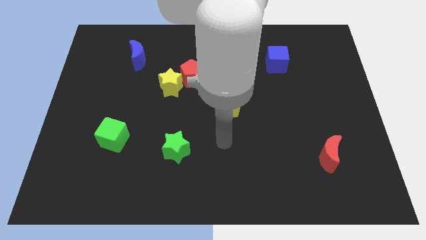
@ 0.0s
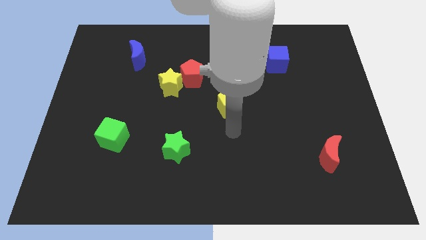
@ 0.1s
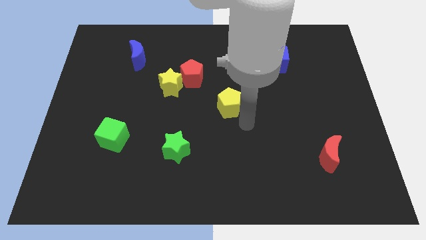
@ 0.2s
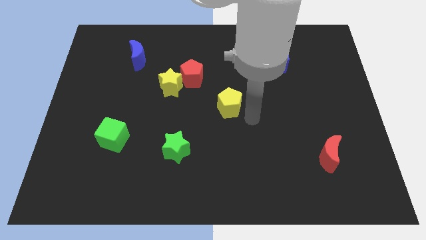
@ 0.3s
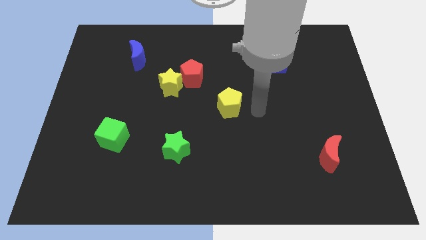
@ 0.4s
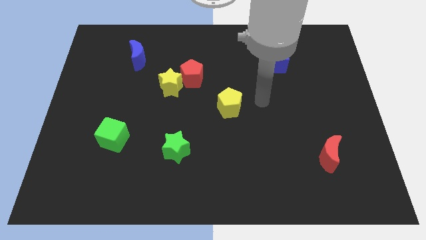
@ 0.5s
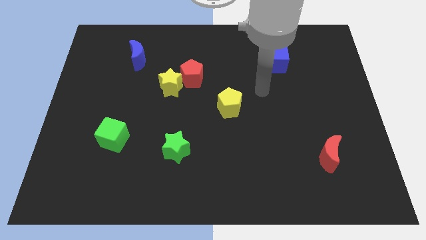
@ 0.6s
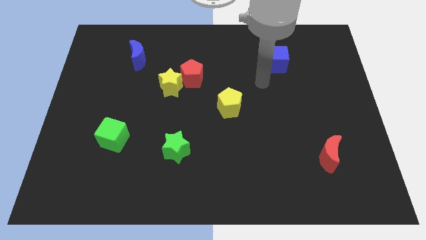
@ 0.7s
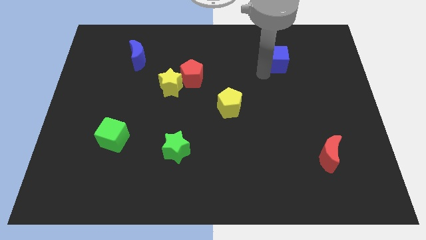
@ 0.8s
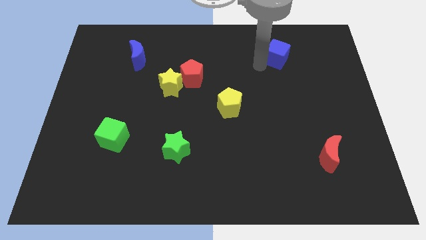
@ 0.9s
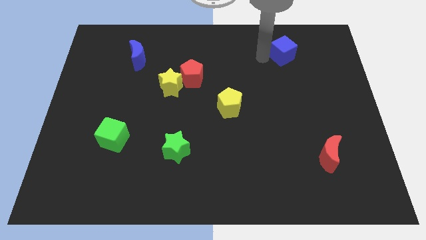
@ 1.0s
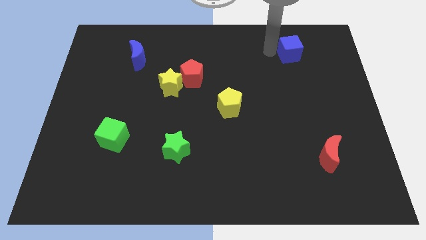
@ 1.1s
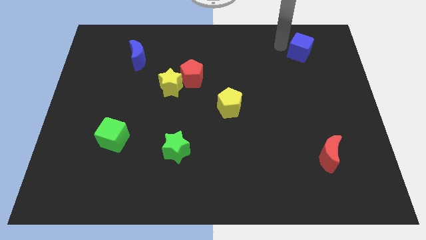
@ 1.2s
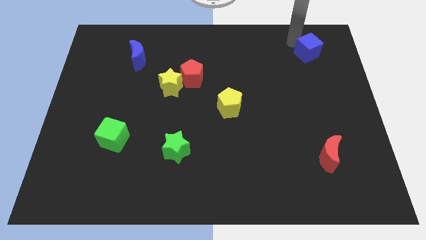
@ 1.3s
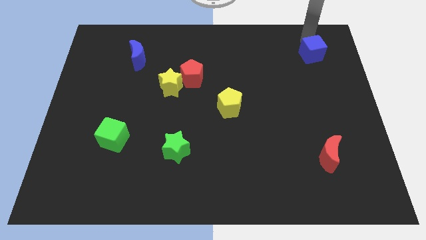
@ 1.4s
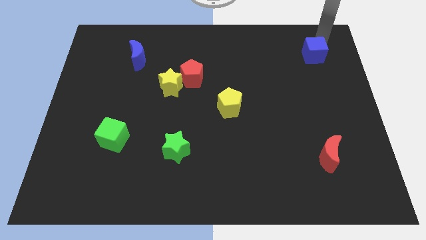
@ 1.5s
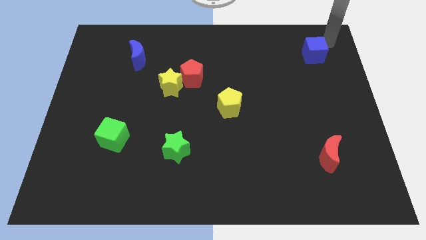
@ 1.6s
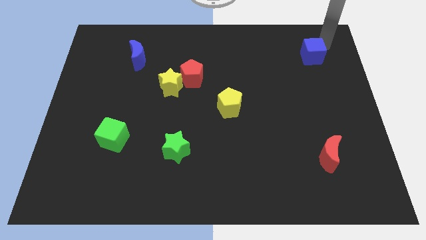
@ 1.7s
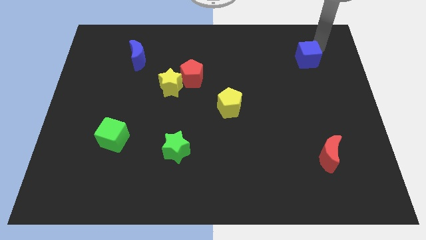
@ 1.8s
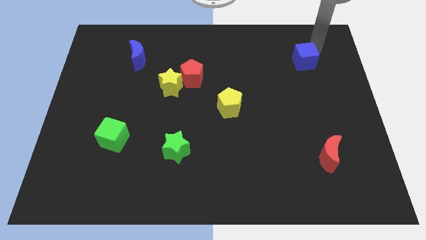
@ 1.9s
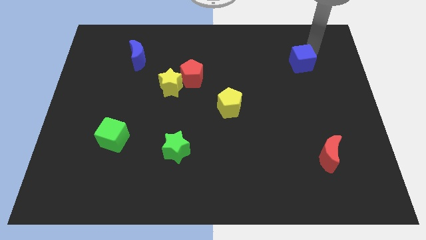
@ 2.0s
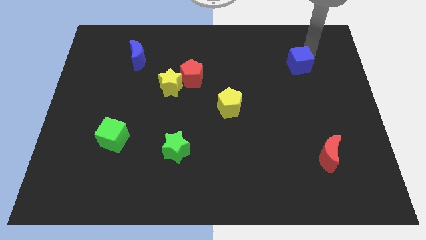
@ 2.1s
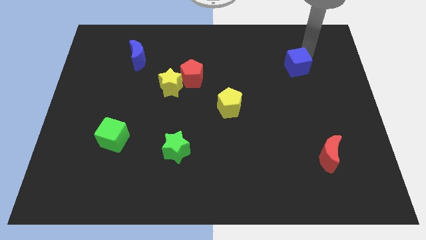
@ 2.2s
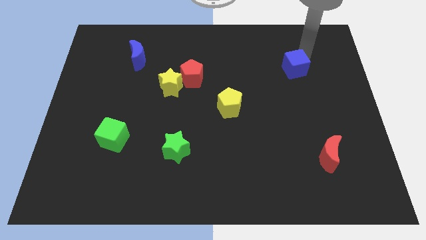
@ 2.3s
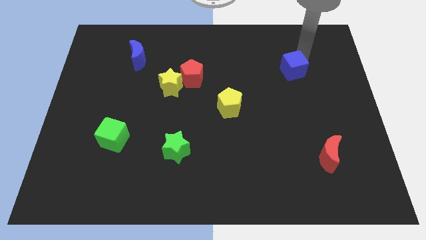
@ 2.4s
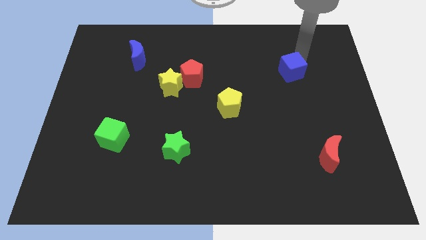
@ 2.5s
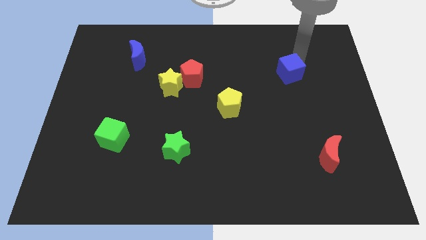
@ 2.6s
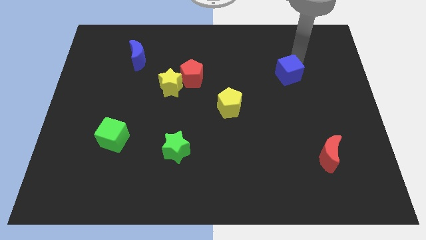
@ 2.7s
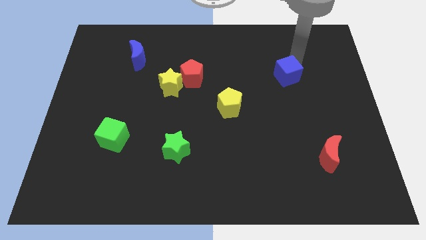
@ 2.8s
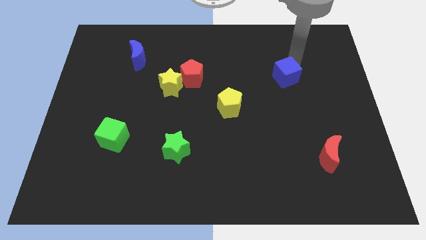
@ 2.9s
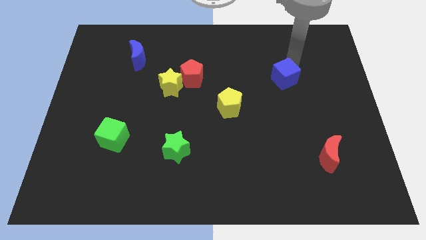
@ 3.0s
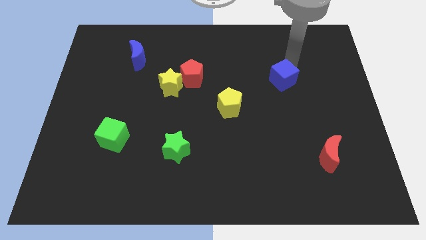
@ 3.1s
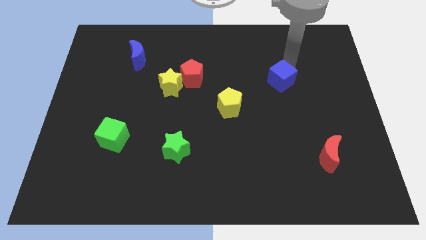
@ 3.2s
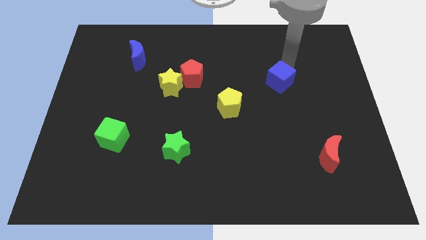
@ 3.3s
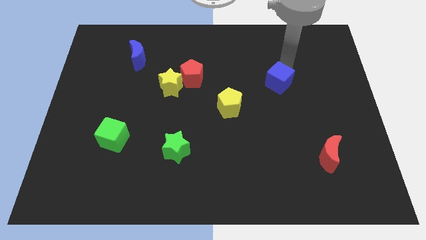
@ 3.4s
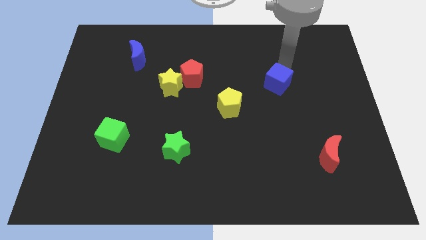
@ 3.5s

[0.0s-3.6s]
slightly push the blue cube down

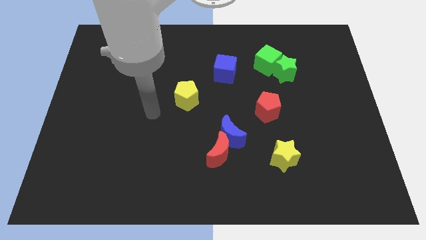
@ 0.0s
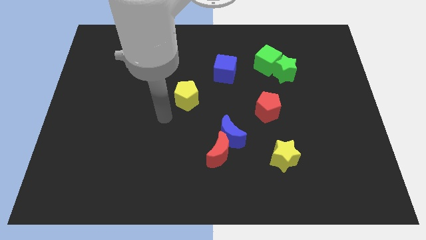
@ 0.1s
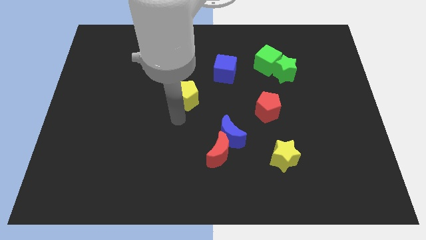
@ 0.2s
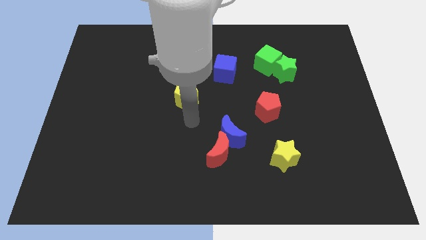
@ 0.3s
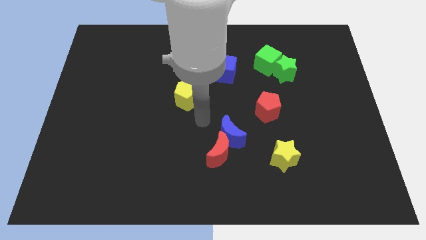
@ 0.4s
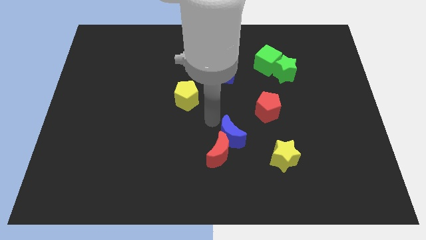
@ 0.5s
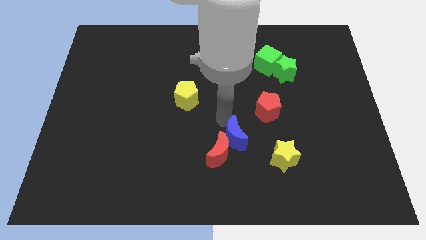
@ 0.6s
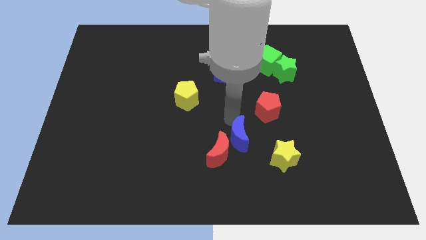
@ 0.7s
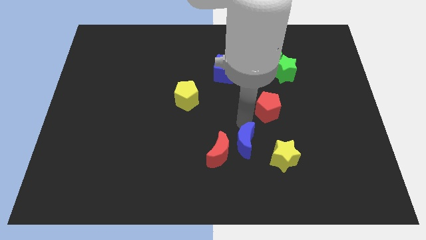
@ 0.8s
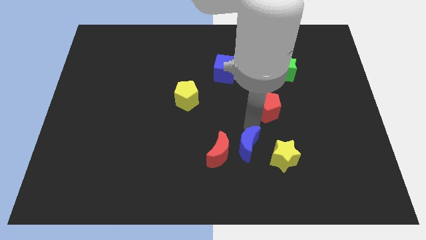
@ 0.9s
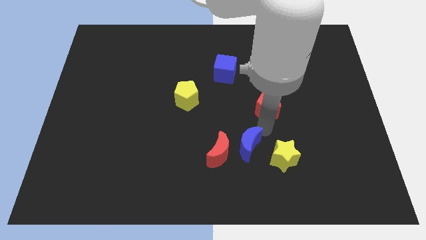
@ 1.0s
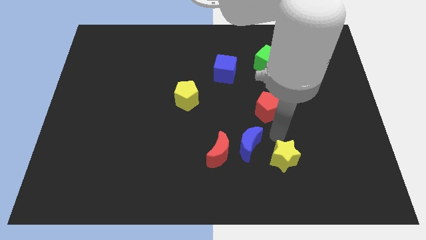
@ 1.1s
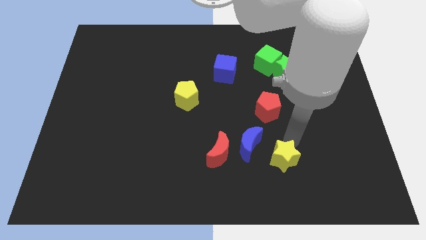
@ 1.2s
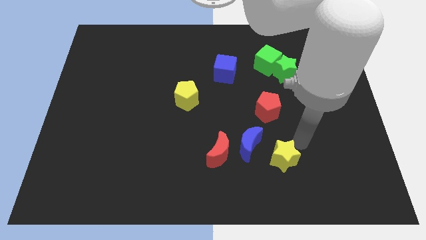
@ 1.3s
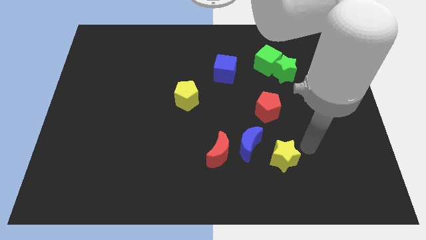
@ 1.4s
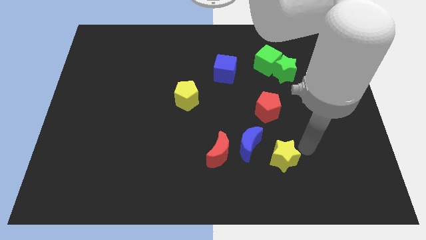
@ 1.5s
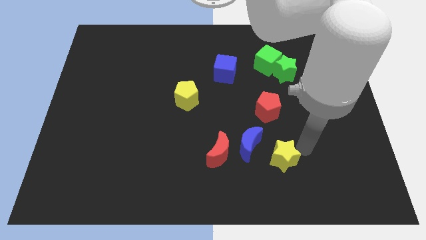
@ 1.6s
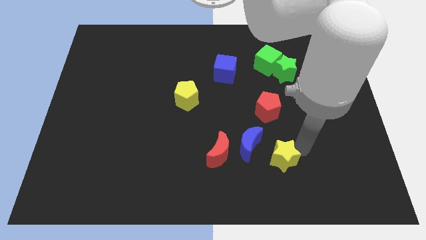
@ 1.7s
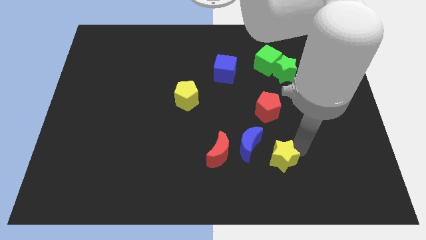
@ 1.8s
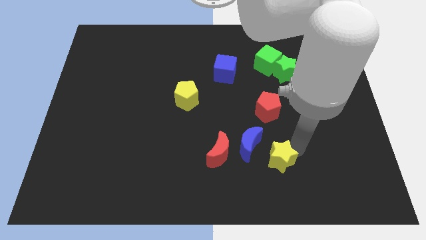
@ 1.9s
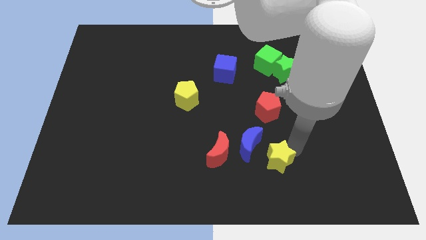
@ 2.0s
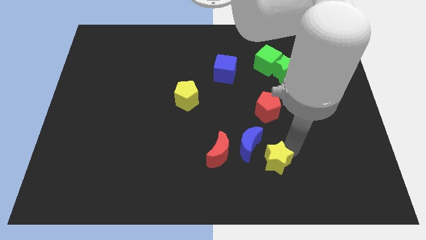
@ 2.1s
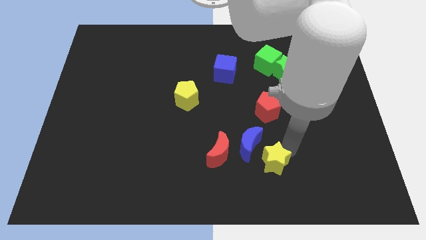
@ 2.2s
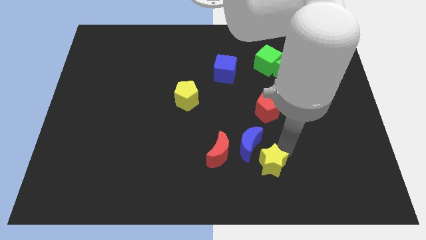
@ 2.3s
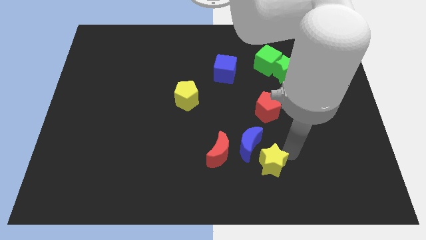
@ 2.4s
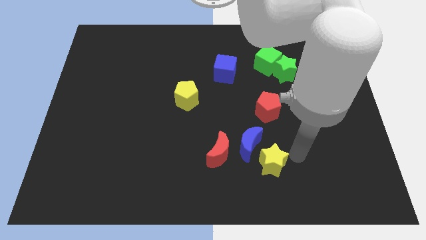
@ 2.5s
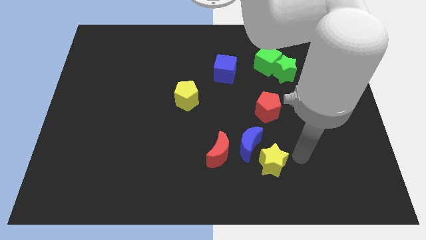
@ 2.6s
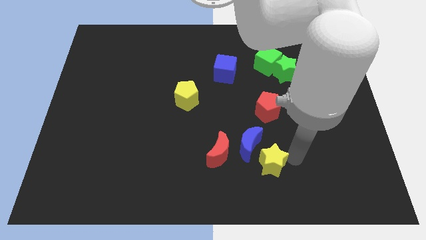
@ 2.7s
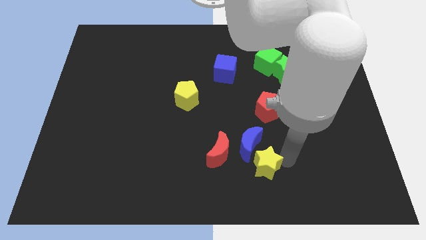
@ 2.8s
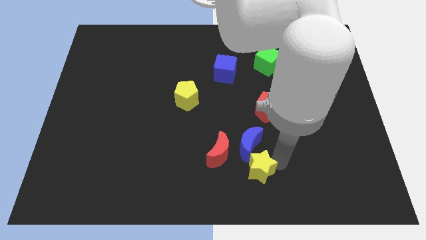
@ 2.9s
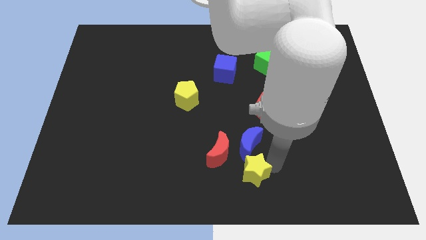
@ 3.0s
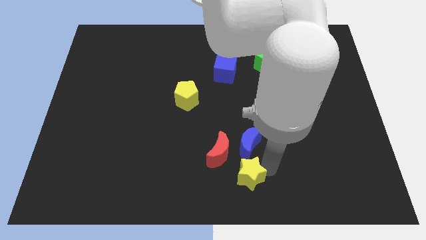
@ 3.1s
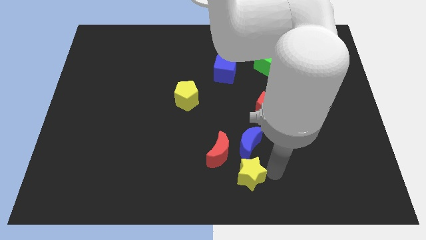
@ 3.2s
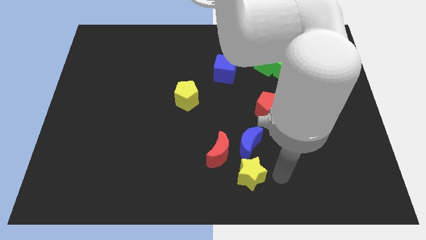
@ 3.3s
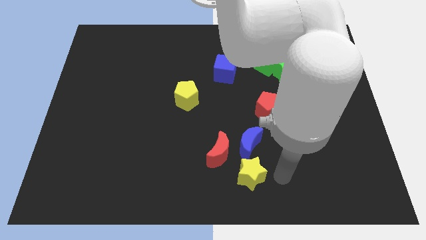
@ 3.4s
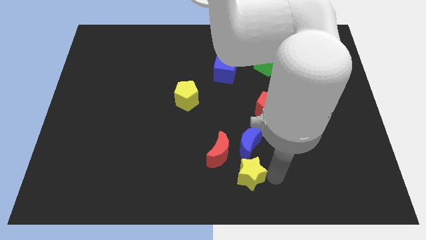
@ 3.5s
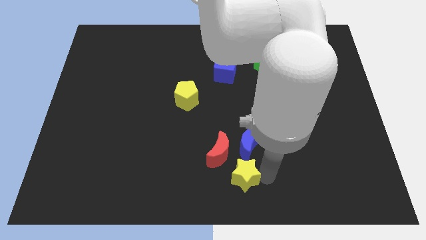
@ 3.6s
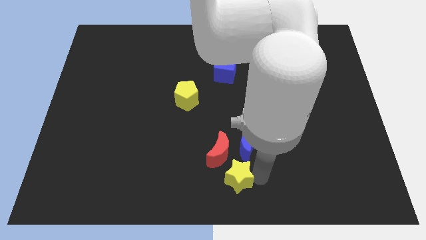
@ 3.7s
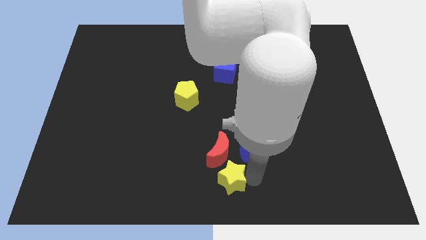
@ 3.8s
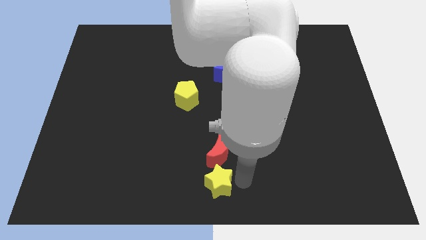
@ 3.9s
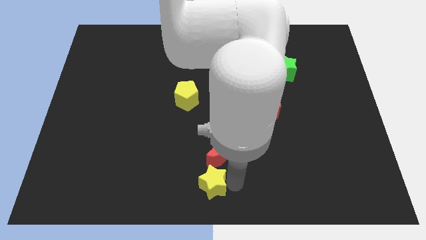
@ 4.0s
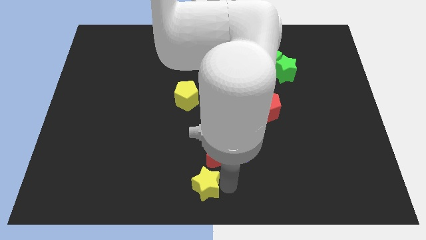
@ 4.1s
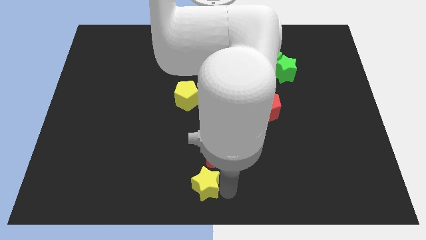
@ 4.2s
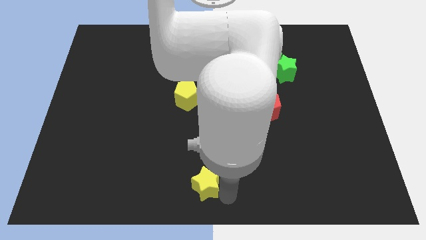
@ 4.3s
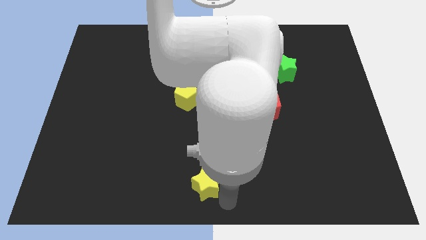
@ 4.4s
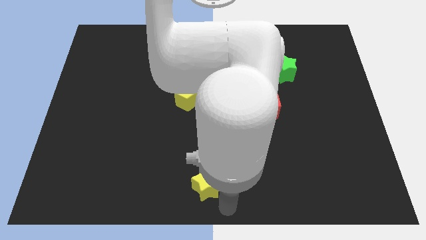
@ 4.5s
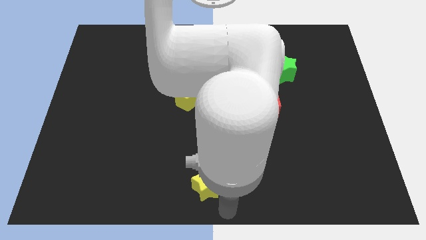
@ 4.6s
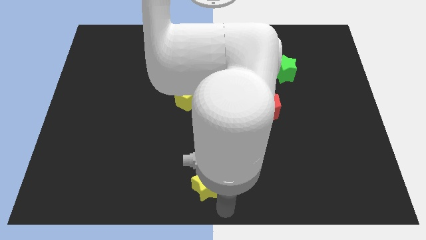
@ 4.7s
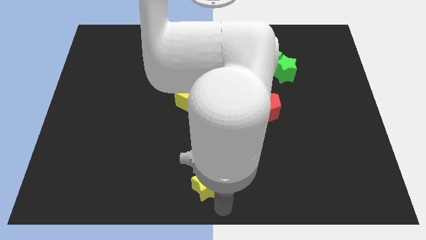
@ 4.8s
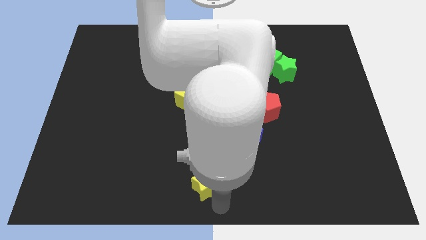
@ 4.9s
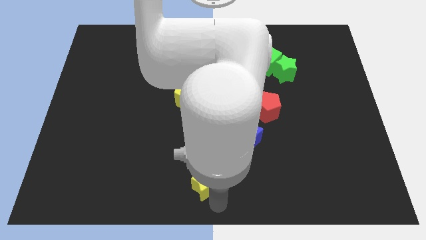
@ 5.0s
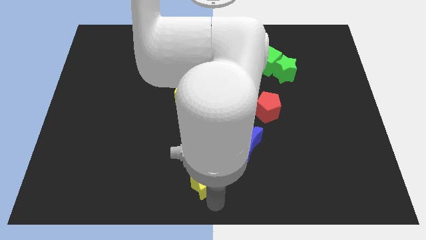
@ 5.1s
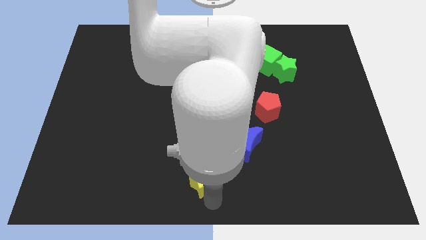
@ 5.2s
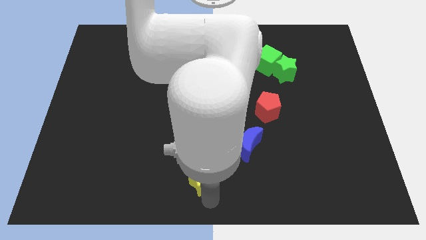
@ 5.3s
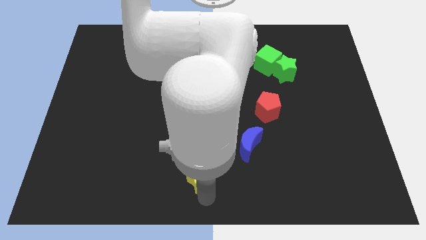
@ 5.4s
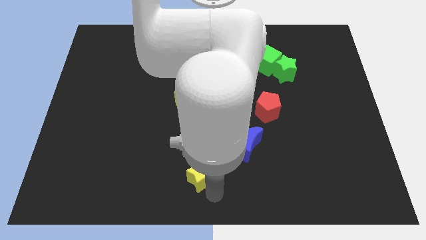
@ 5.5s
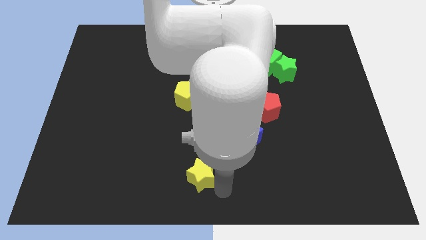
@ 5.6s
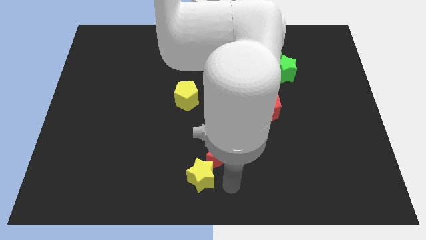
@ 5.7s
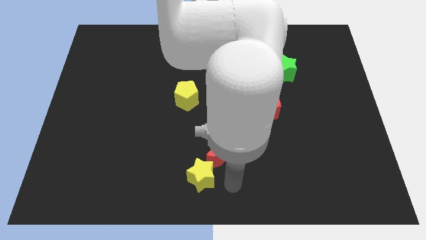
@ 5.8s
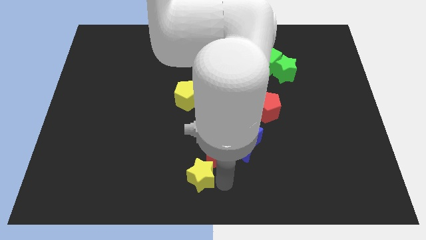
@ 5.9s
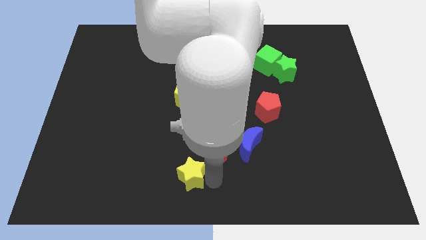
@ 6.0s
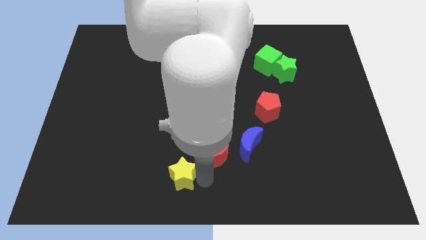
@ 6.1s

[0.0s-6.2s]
slide the yellow star left
